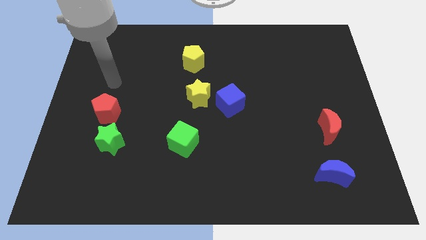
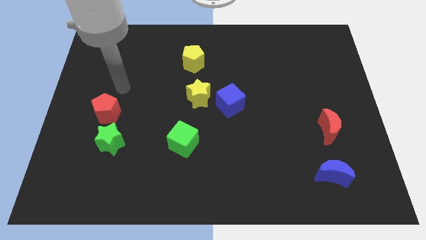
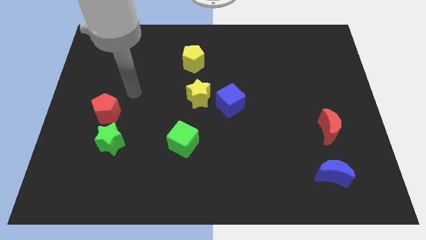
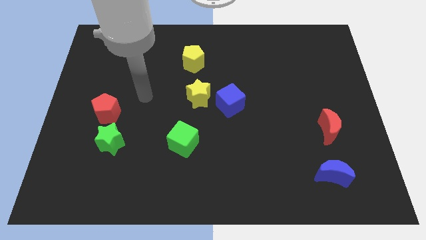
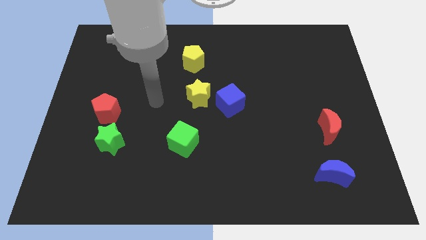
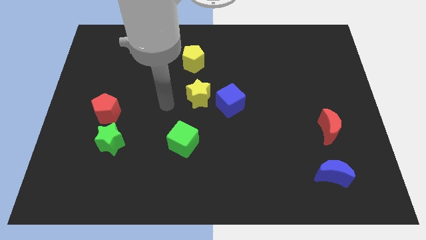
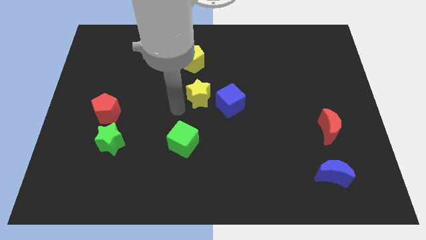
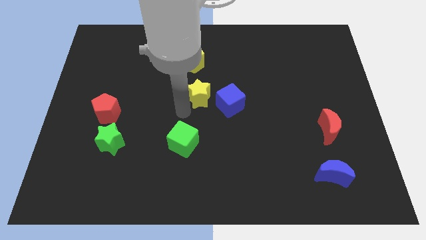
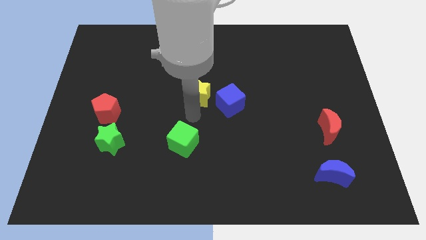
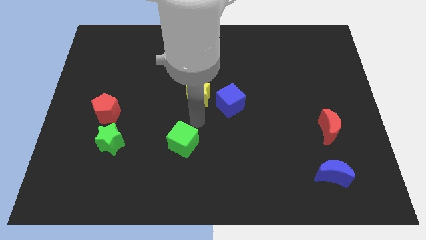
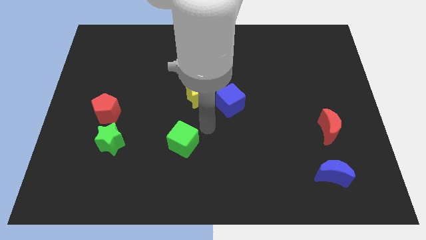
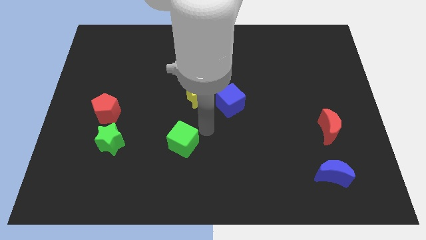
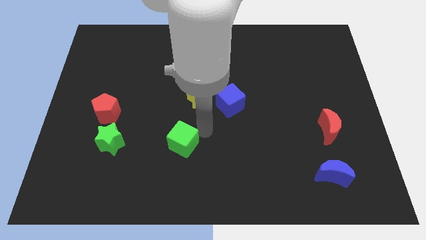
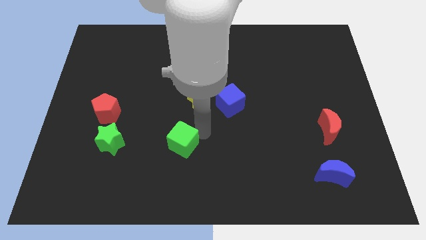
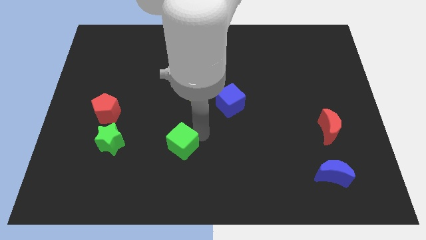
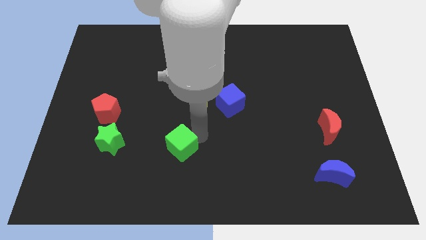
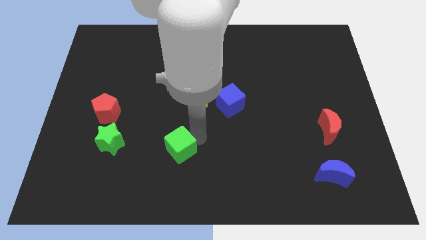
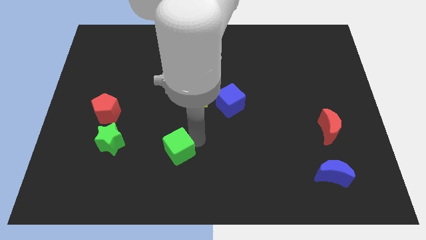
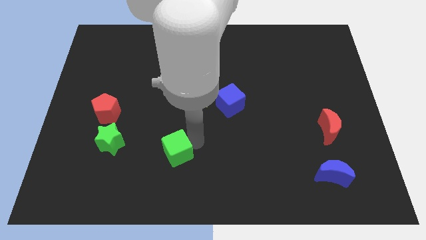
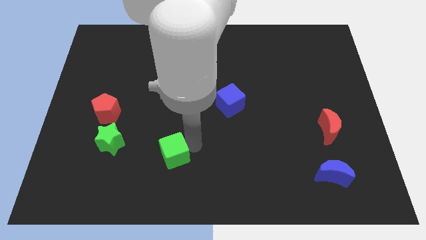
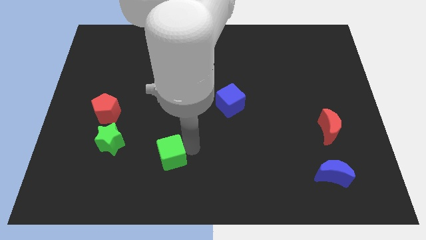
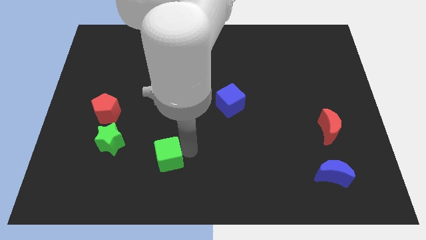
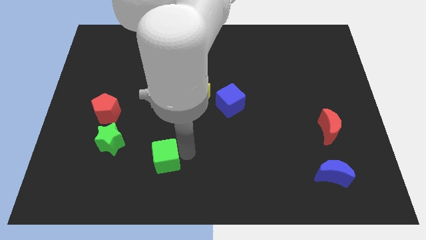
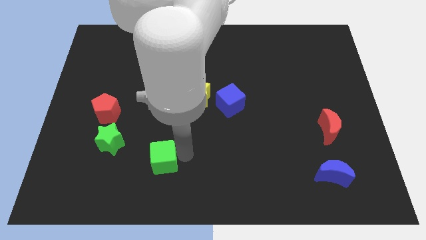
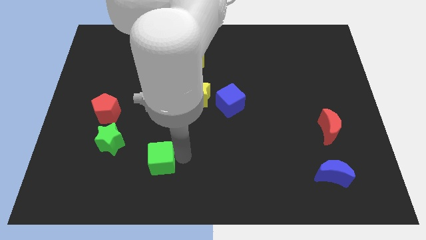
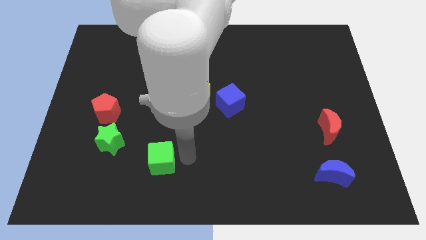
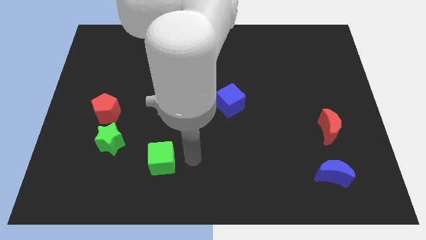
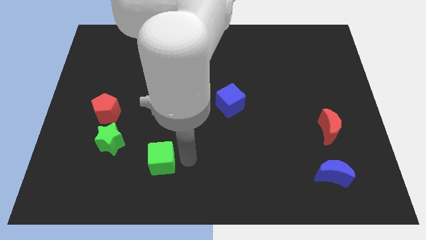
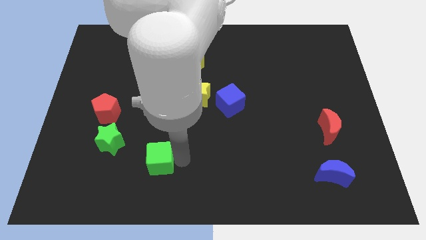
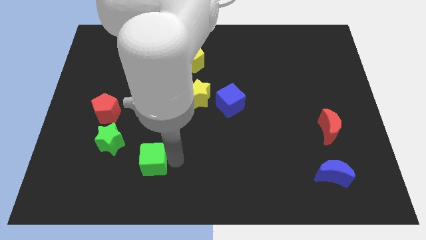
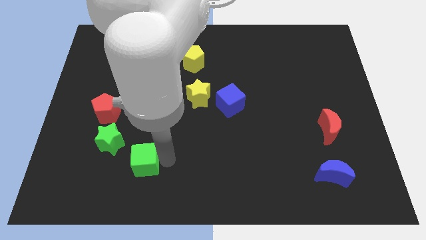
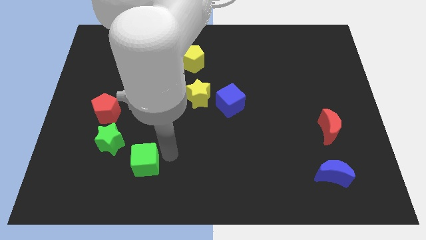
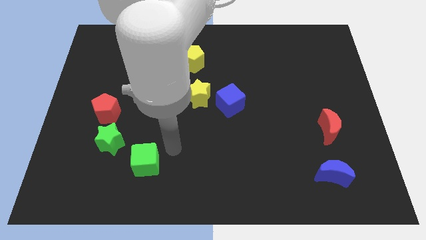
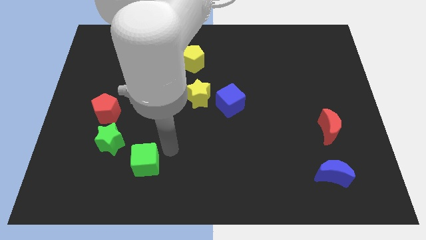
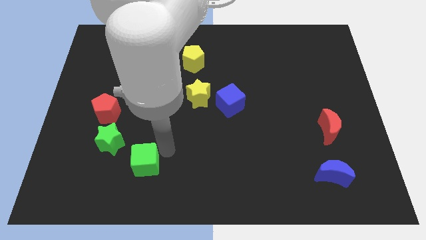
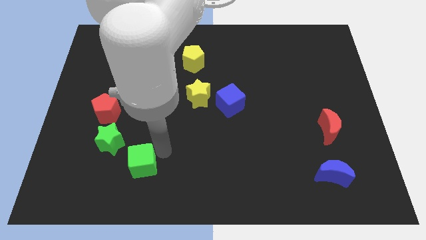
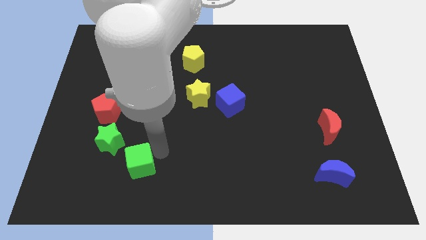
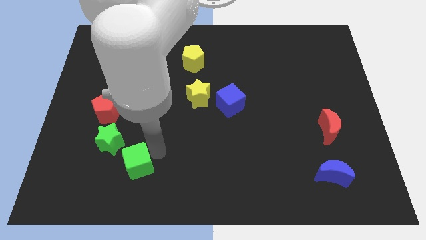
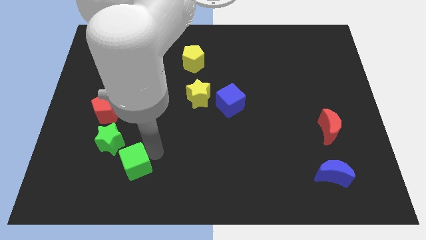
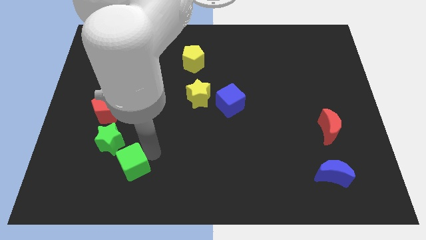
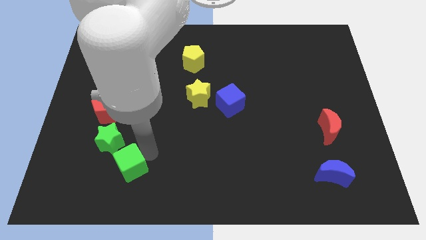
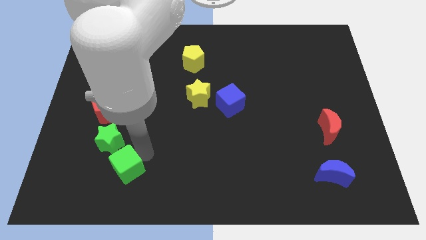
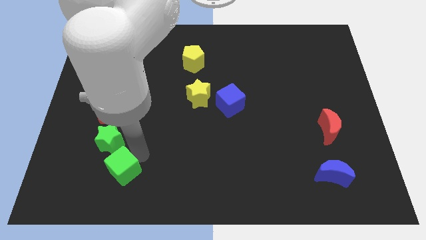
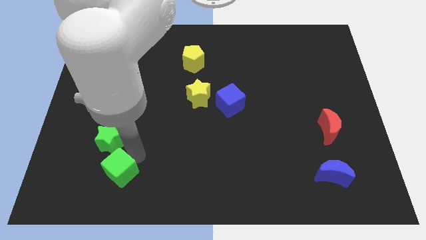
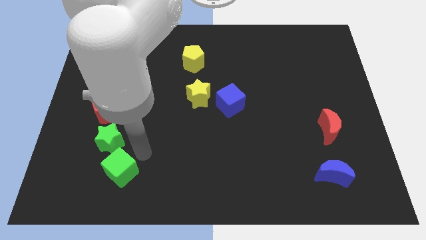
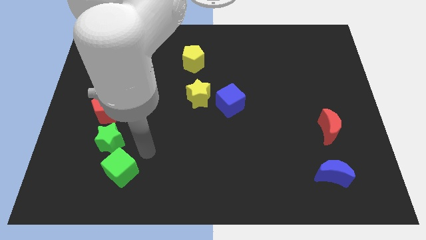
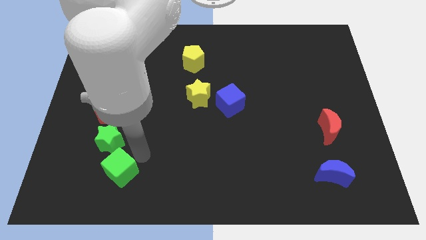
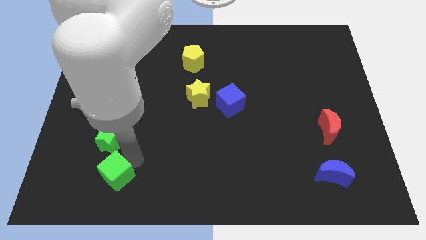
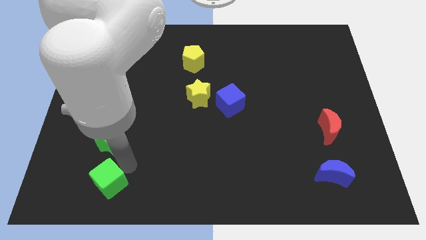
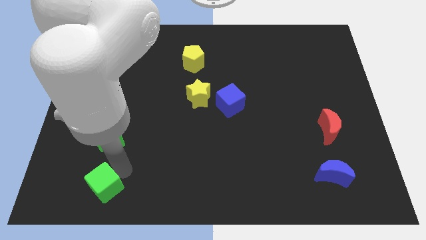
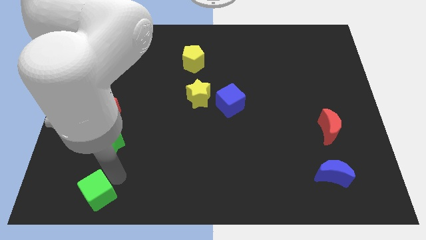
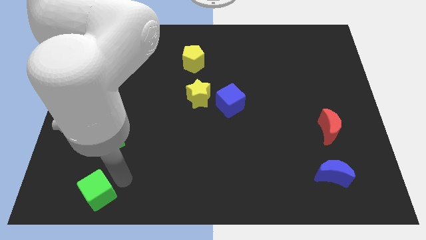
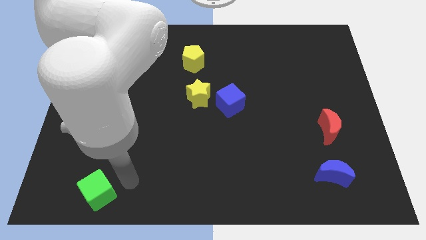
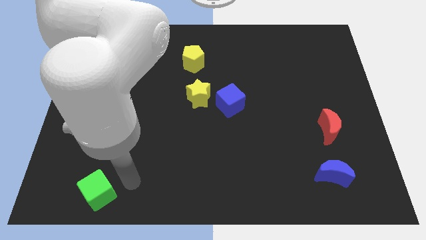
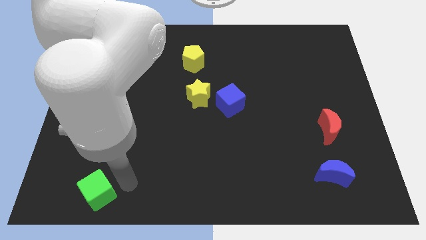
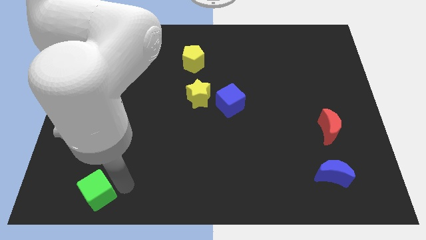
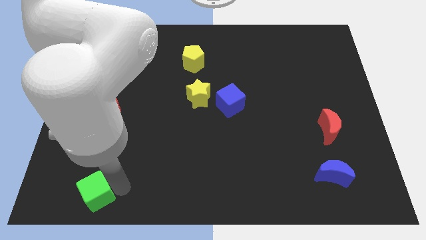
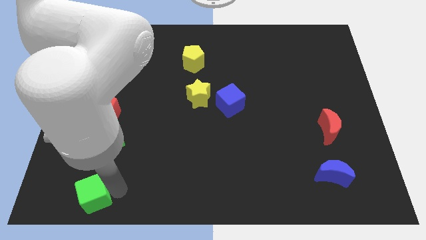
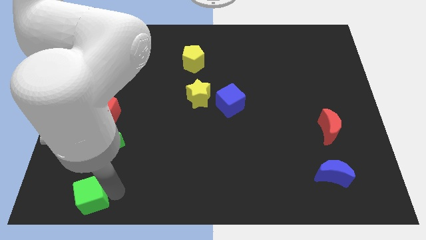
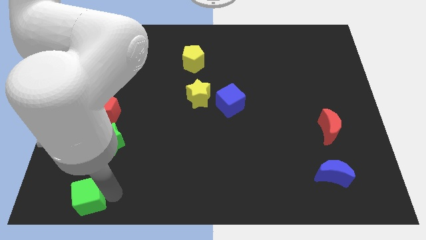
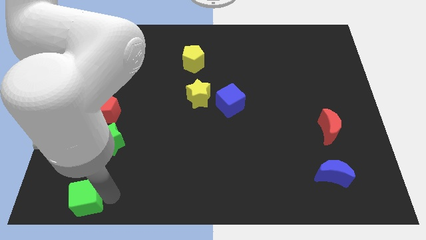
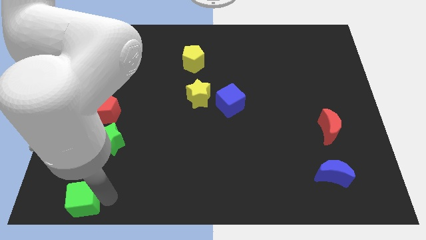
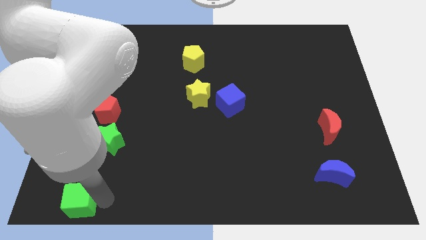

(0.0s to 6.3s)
push the green cube to the bottom left corner

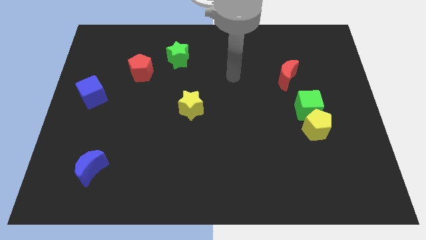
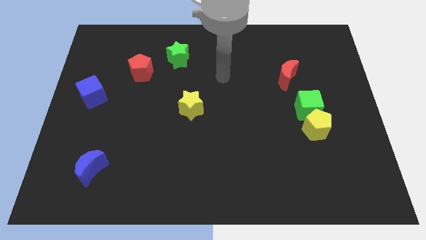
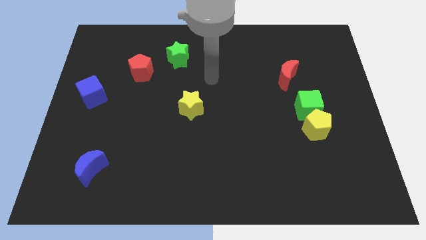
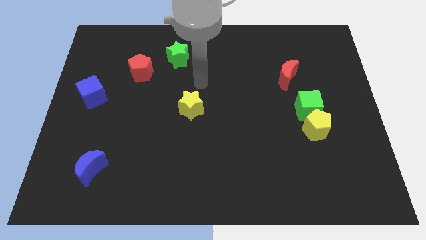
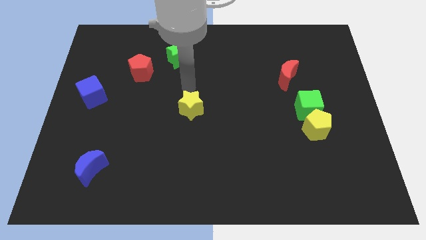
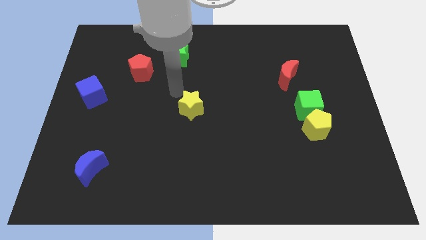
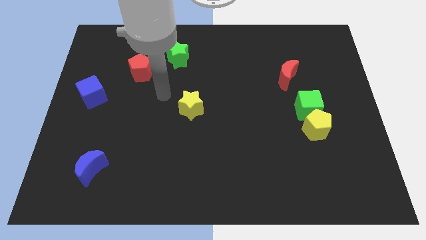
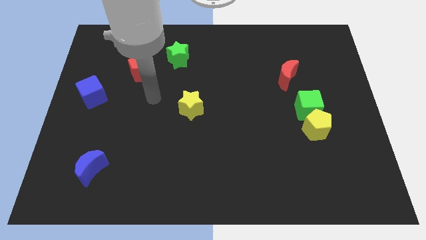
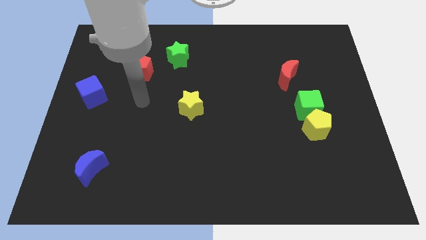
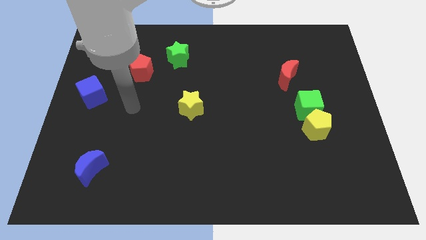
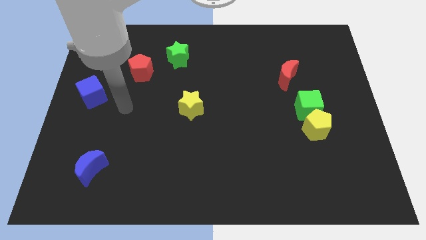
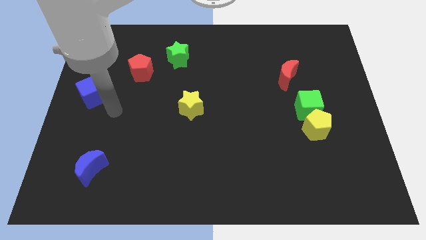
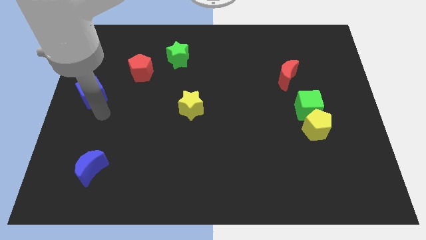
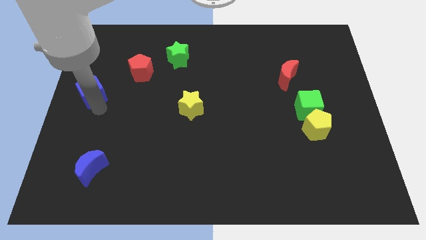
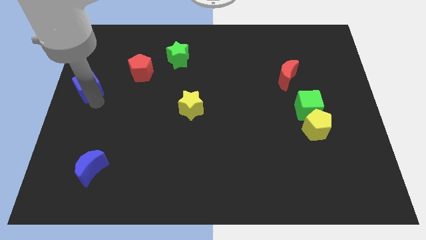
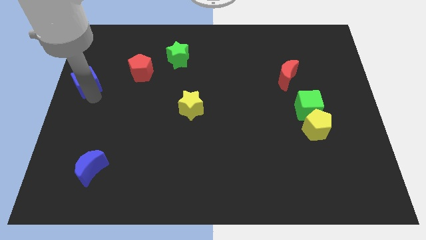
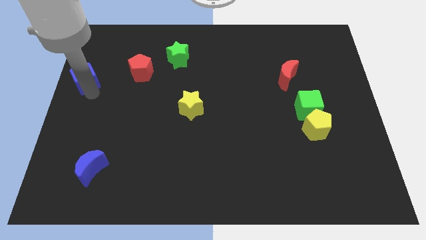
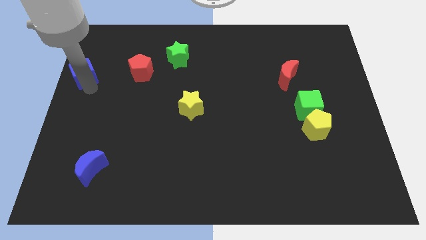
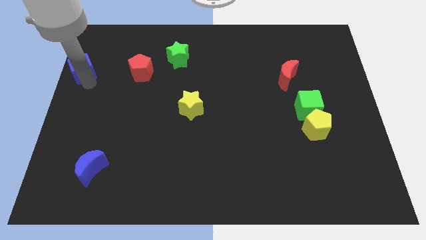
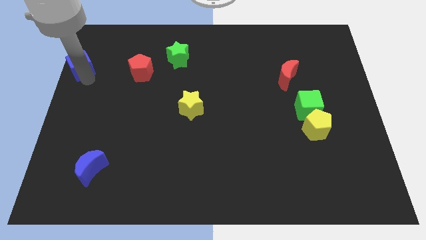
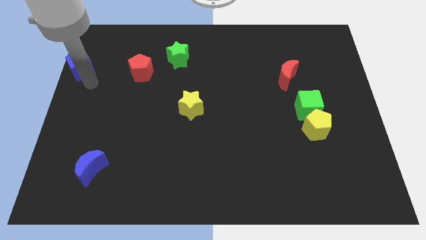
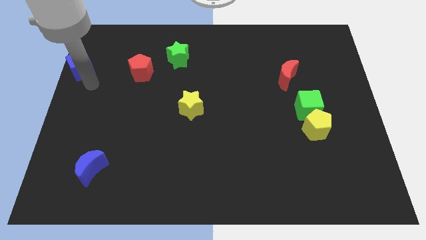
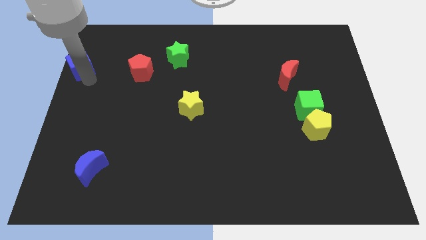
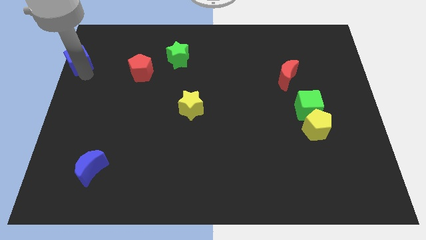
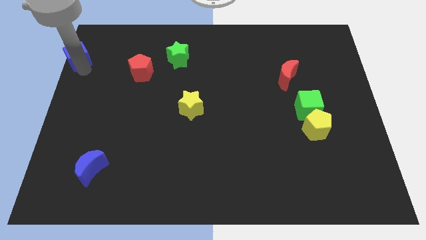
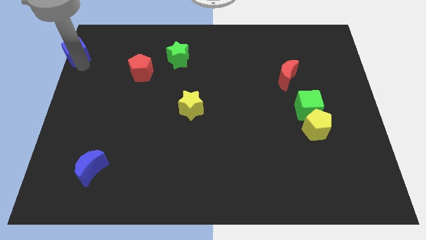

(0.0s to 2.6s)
put the blue cube to the top left of the board
